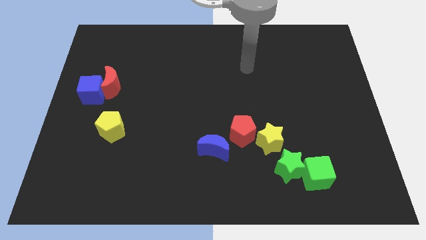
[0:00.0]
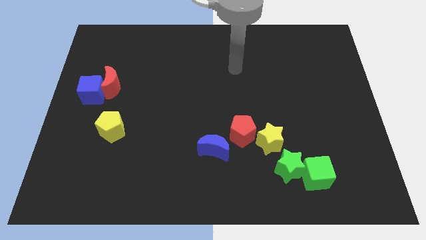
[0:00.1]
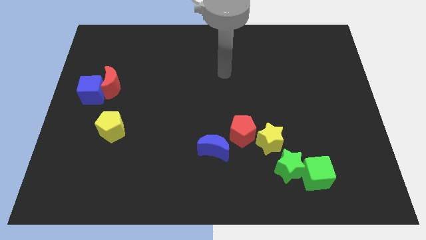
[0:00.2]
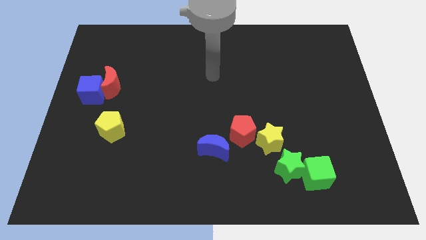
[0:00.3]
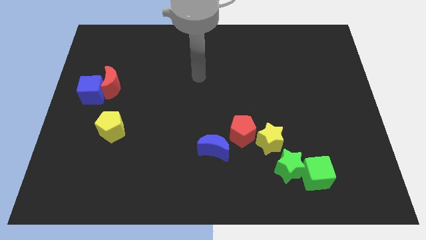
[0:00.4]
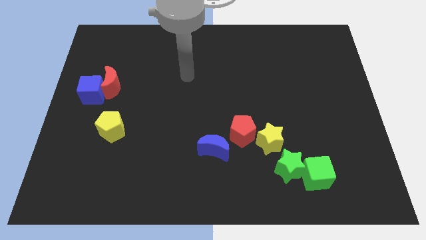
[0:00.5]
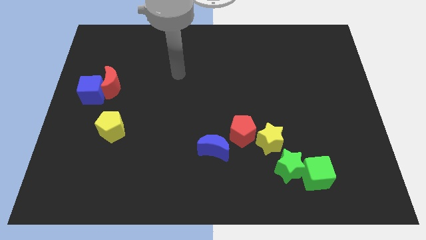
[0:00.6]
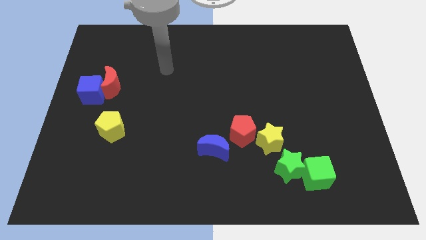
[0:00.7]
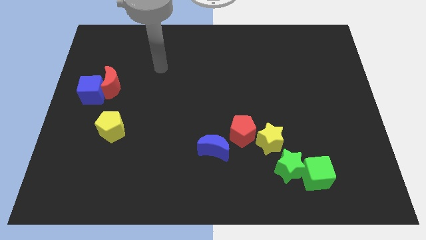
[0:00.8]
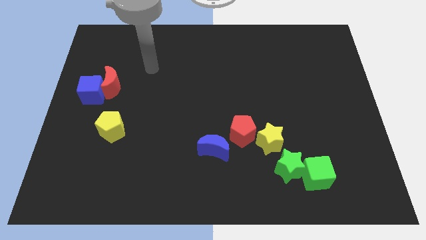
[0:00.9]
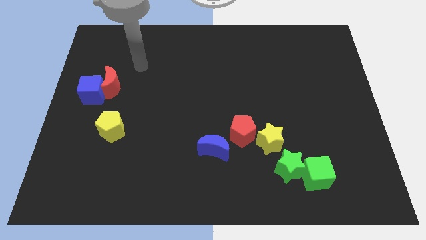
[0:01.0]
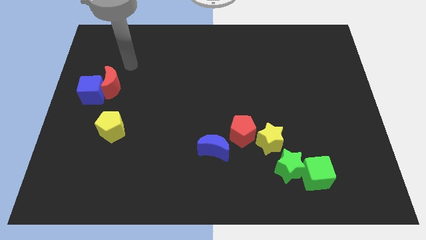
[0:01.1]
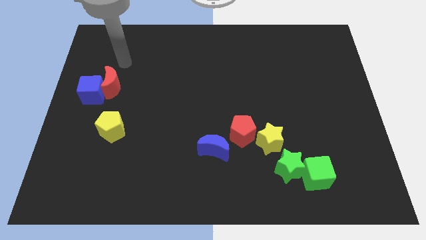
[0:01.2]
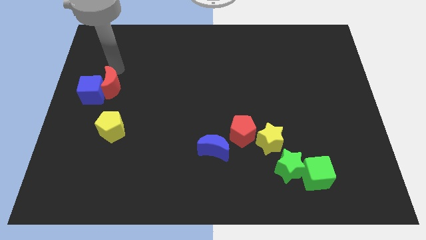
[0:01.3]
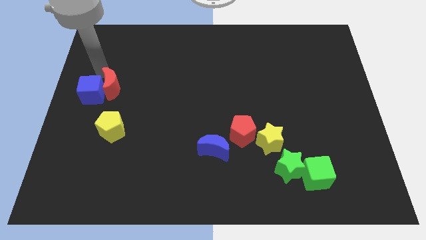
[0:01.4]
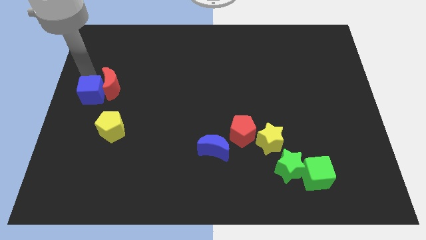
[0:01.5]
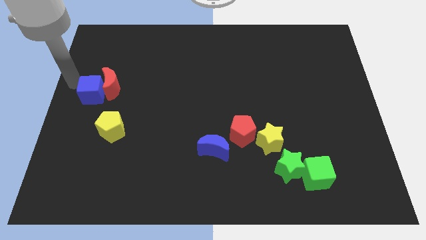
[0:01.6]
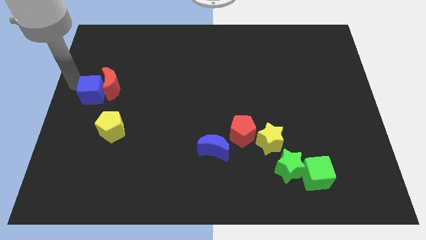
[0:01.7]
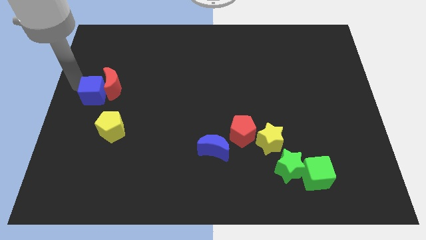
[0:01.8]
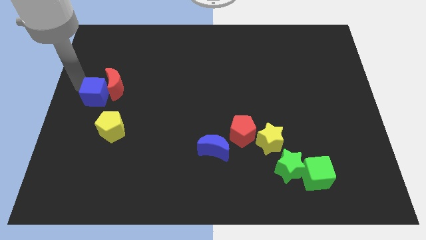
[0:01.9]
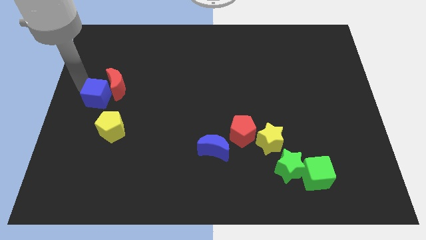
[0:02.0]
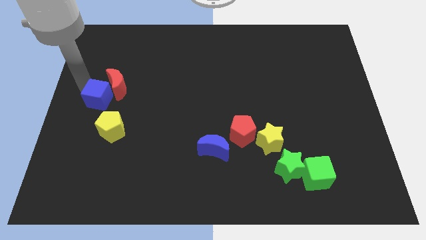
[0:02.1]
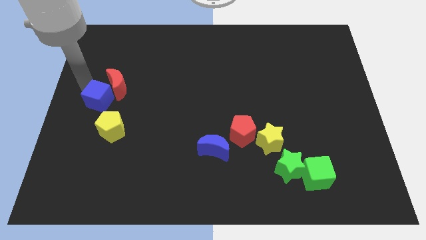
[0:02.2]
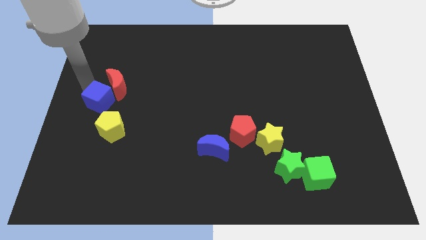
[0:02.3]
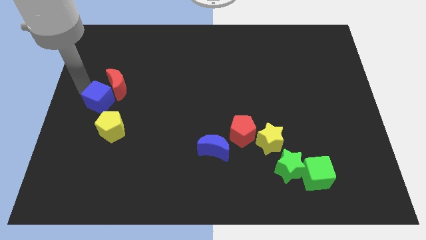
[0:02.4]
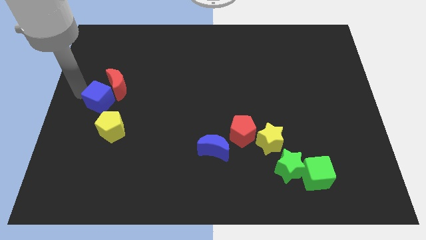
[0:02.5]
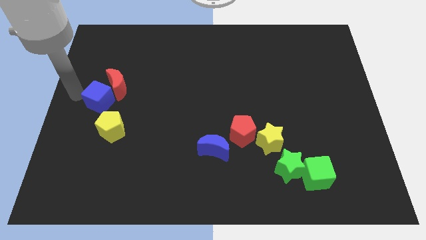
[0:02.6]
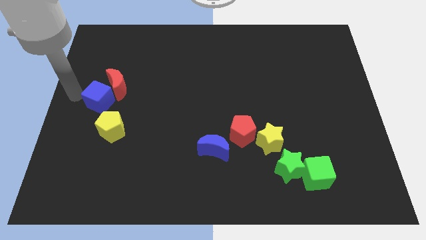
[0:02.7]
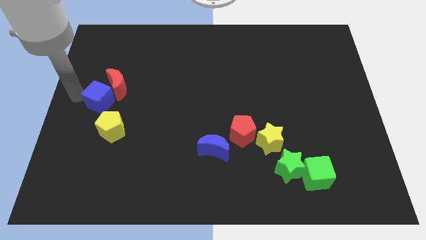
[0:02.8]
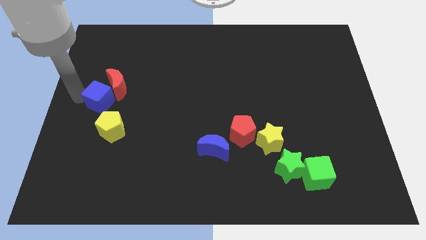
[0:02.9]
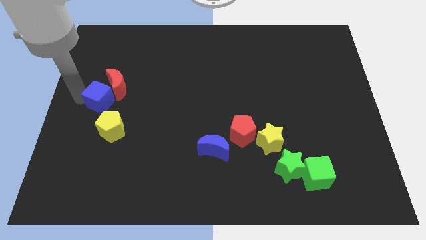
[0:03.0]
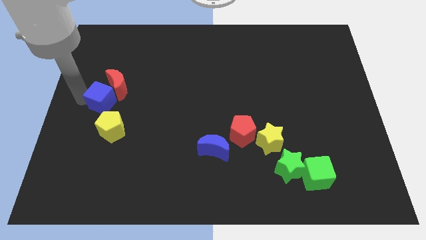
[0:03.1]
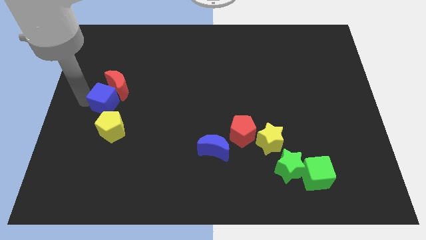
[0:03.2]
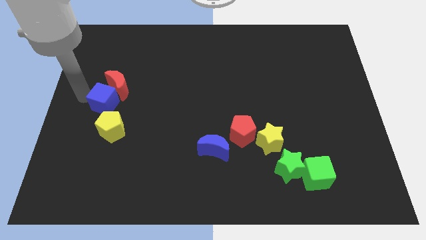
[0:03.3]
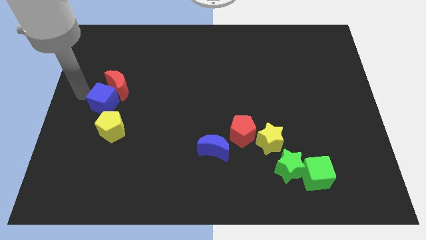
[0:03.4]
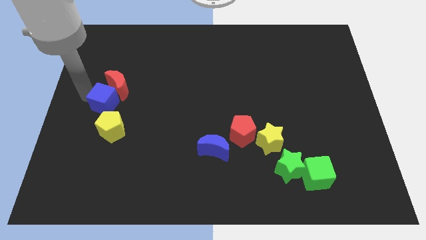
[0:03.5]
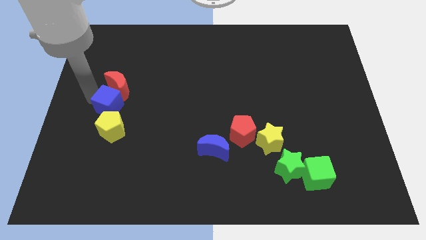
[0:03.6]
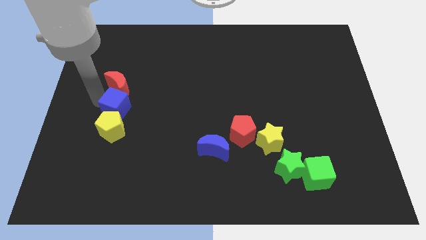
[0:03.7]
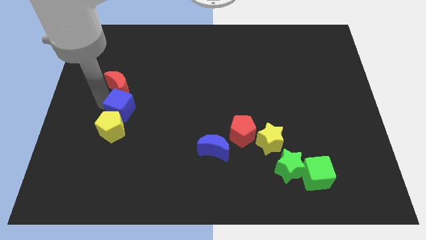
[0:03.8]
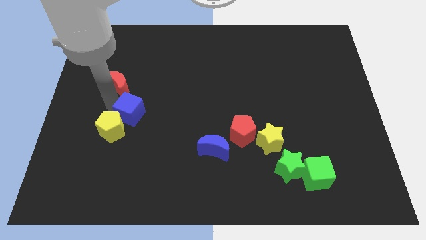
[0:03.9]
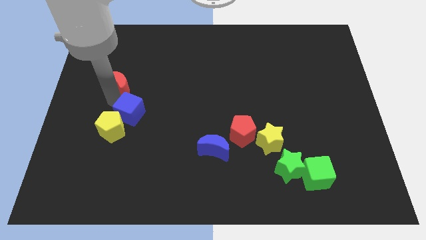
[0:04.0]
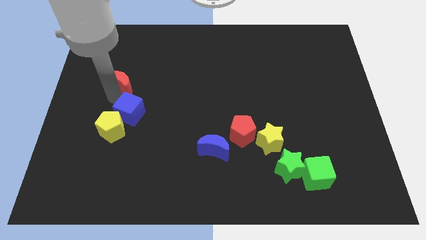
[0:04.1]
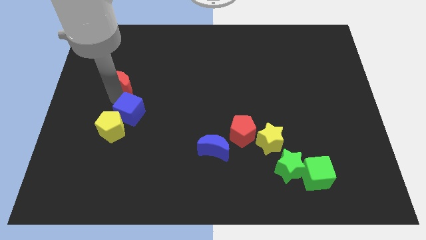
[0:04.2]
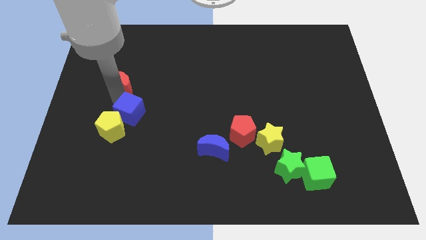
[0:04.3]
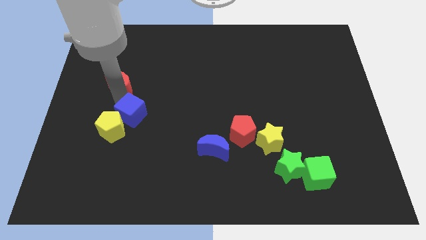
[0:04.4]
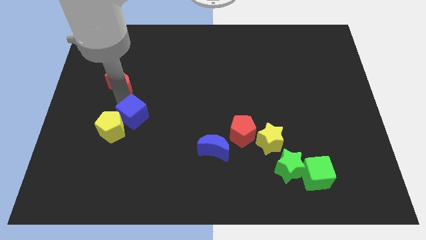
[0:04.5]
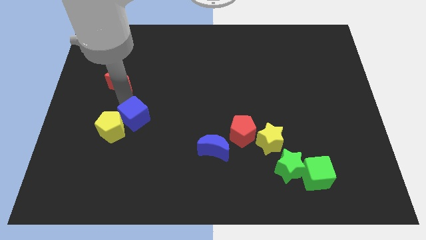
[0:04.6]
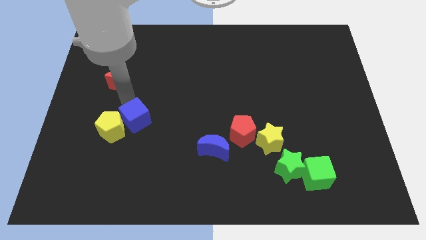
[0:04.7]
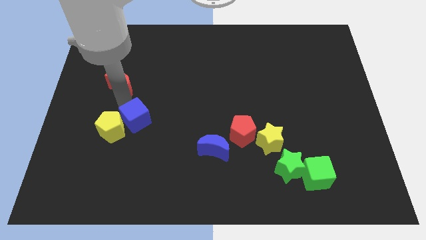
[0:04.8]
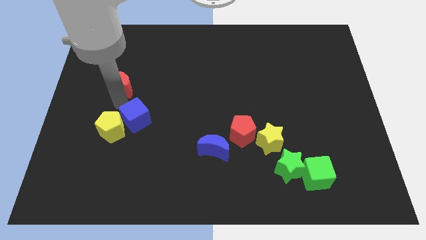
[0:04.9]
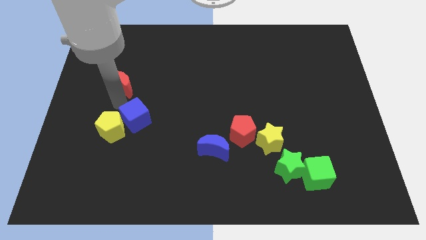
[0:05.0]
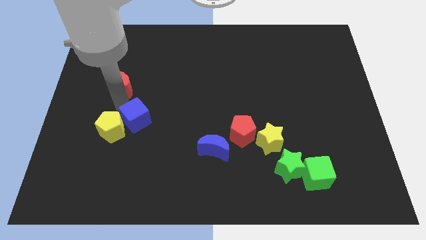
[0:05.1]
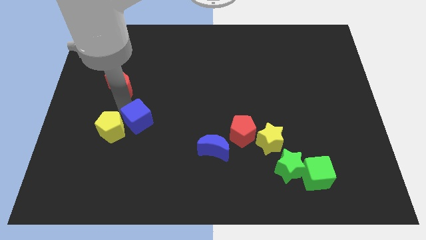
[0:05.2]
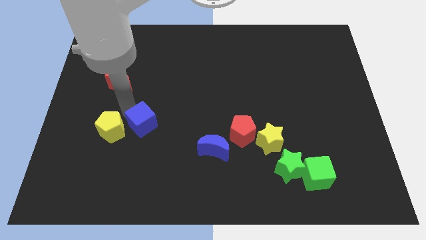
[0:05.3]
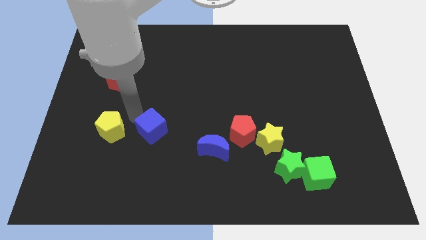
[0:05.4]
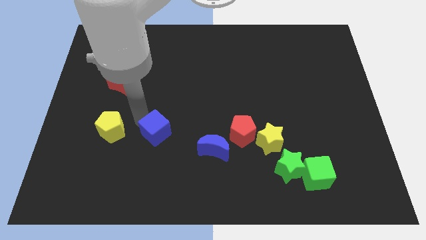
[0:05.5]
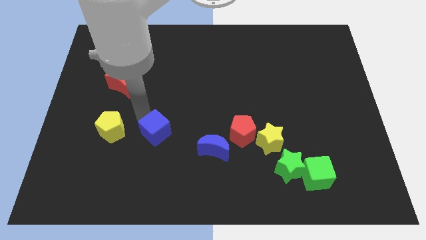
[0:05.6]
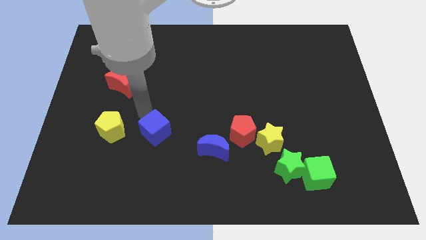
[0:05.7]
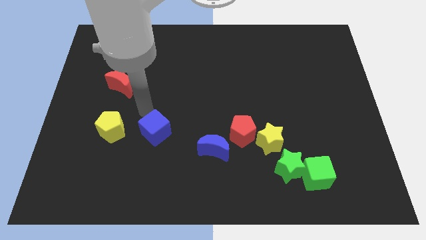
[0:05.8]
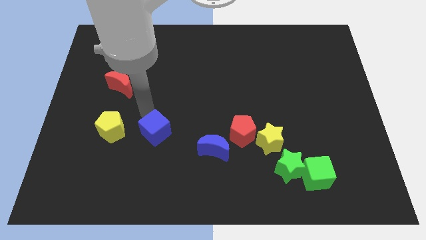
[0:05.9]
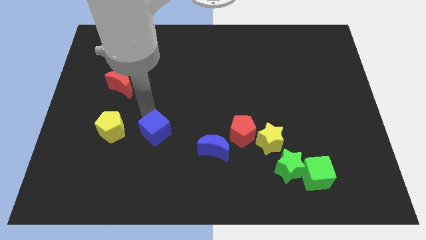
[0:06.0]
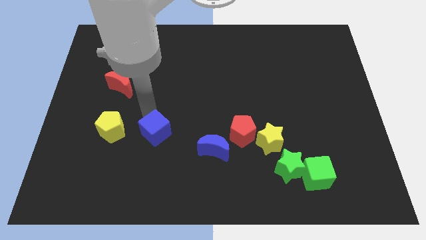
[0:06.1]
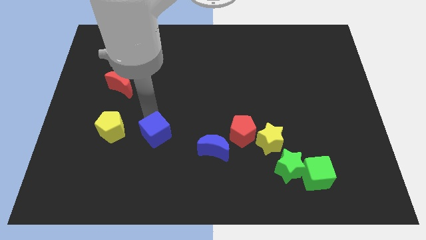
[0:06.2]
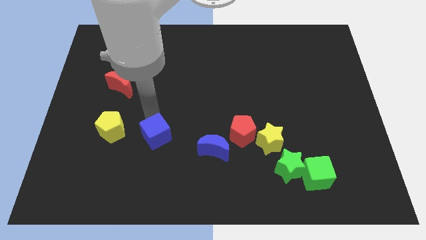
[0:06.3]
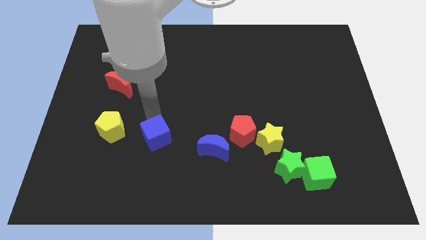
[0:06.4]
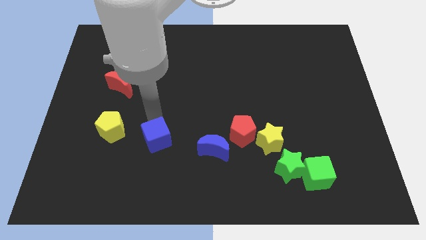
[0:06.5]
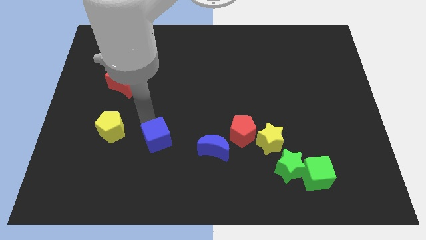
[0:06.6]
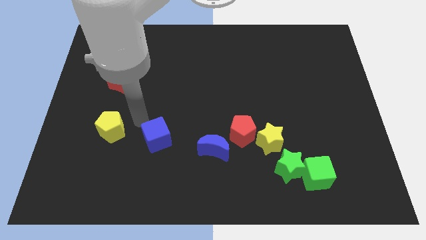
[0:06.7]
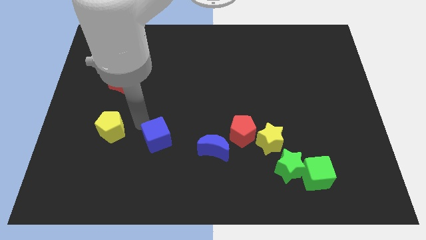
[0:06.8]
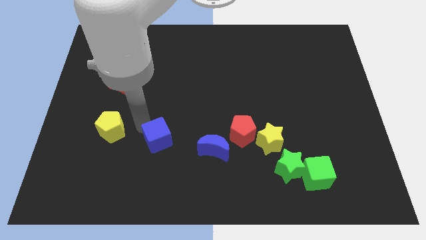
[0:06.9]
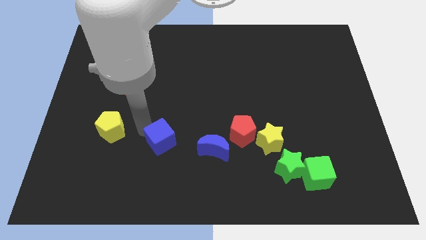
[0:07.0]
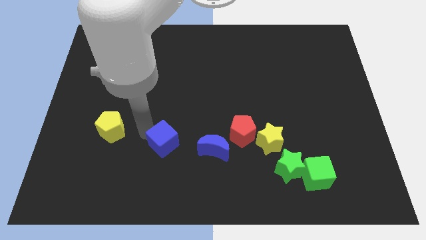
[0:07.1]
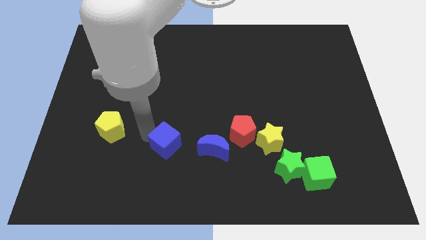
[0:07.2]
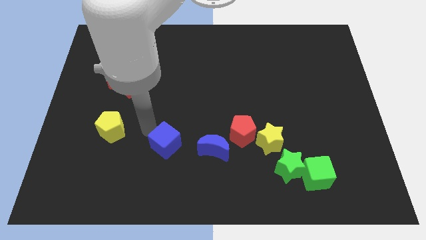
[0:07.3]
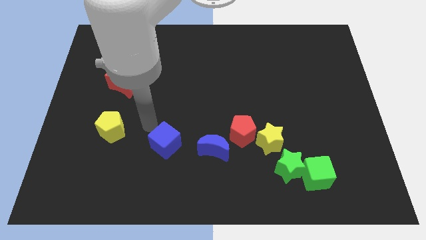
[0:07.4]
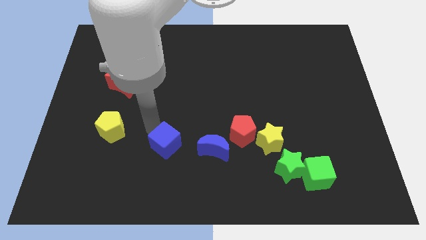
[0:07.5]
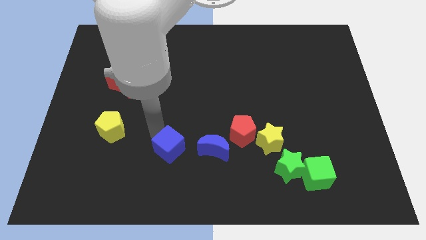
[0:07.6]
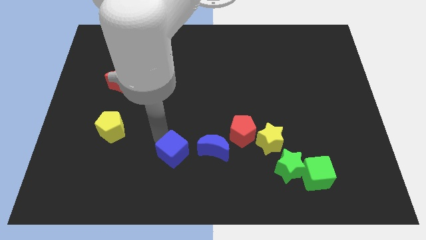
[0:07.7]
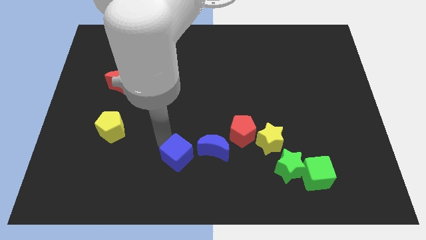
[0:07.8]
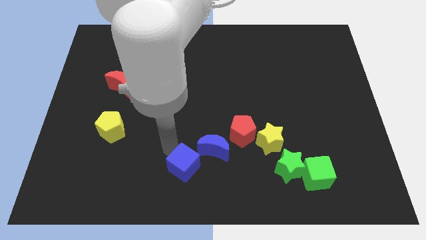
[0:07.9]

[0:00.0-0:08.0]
slide the blue cube to the bottom
